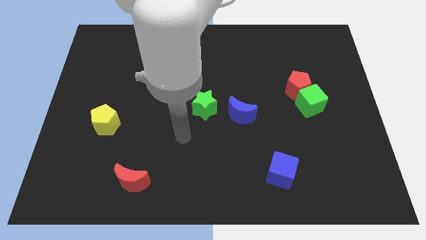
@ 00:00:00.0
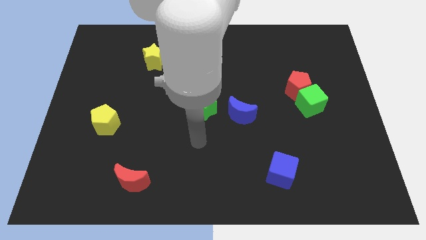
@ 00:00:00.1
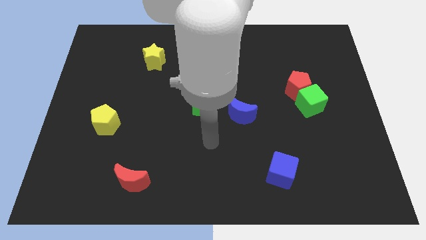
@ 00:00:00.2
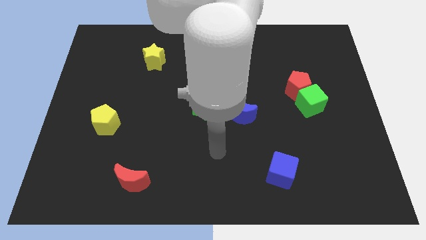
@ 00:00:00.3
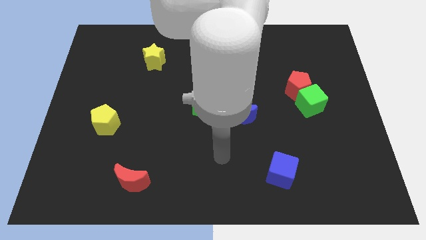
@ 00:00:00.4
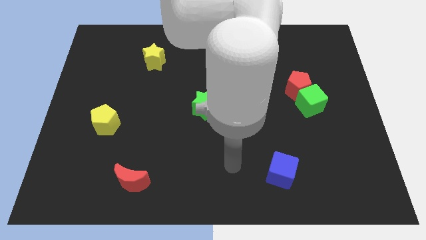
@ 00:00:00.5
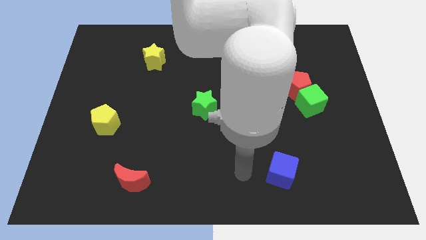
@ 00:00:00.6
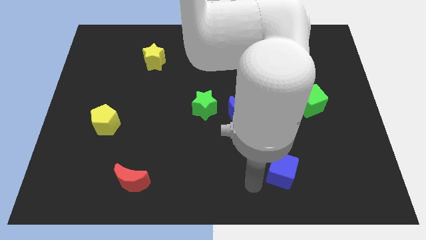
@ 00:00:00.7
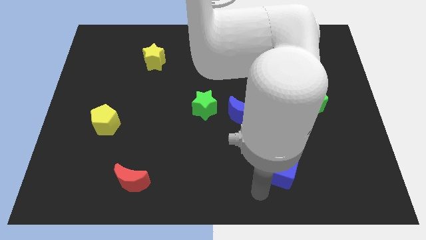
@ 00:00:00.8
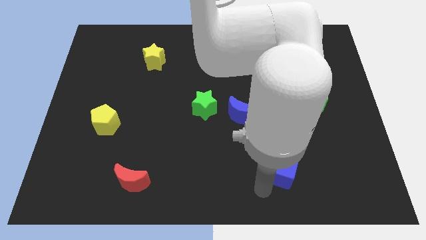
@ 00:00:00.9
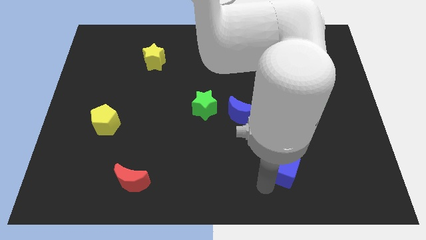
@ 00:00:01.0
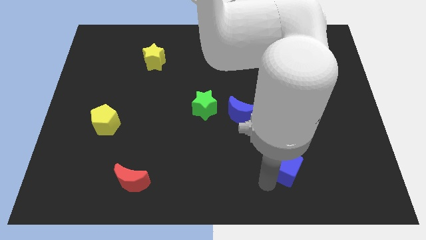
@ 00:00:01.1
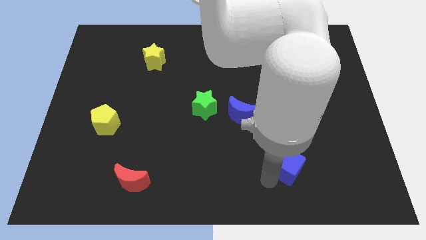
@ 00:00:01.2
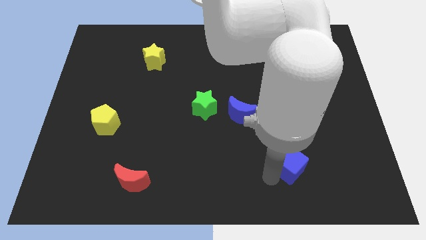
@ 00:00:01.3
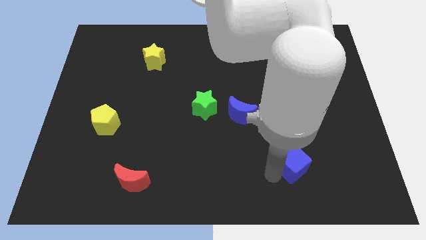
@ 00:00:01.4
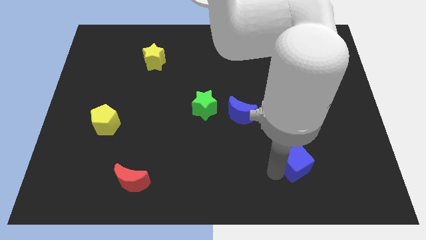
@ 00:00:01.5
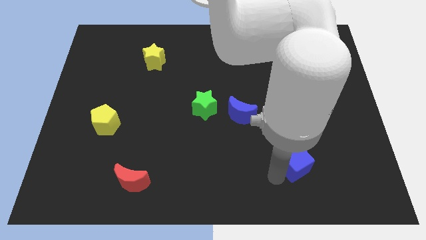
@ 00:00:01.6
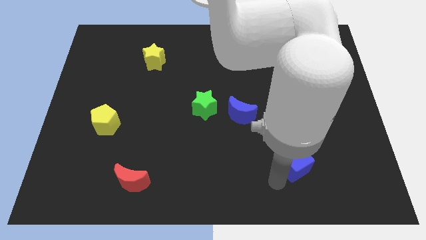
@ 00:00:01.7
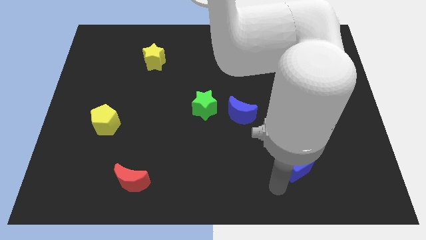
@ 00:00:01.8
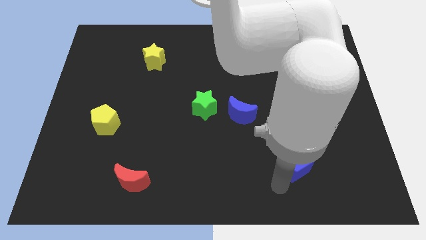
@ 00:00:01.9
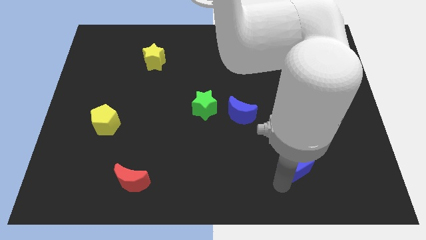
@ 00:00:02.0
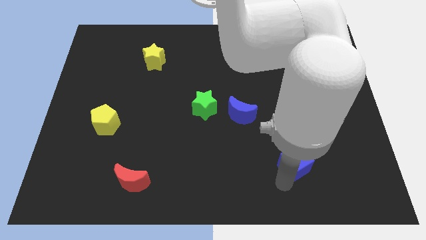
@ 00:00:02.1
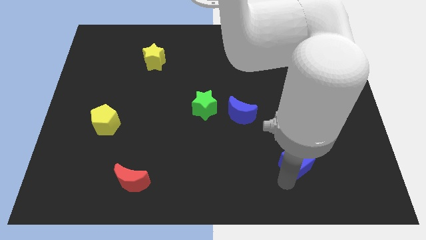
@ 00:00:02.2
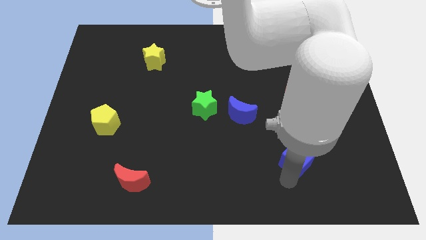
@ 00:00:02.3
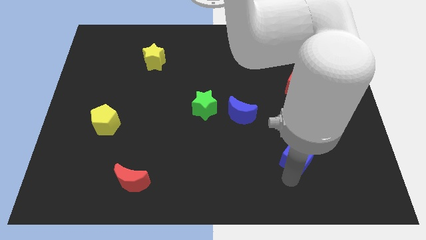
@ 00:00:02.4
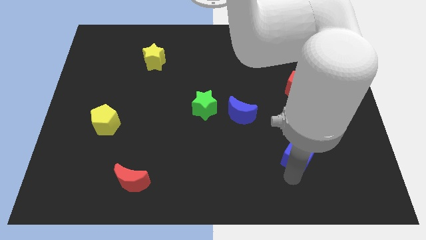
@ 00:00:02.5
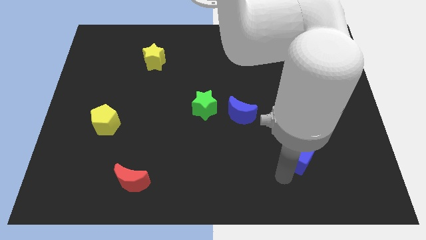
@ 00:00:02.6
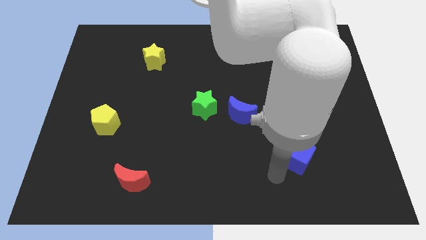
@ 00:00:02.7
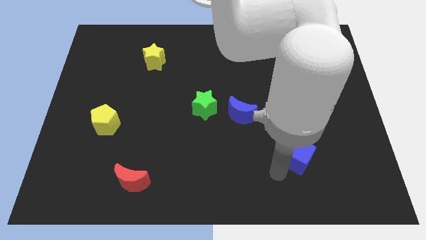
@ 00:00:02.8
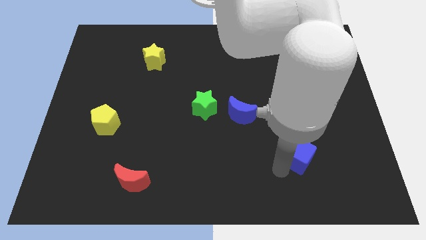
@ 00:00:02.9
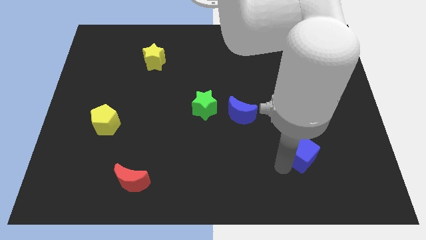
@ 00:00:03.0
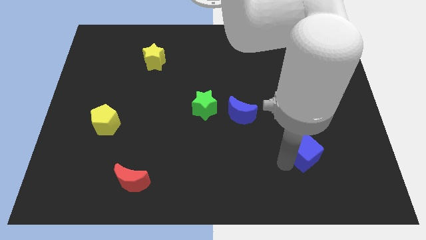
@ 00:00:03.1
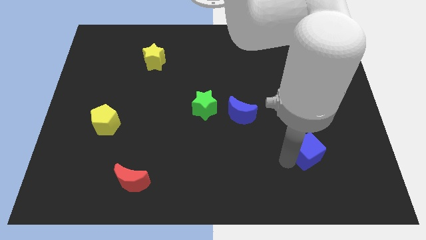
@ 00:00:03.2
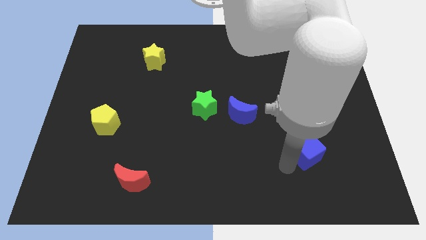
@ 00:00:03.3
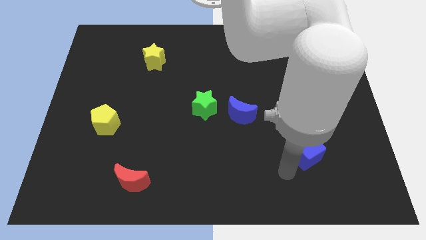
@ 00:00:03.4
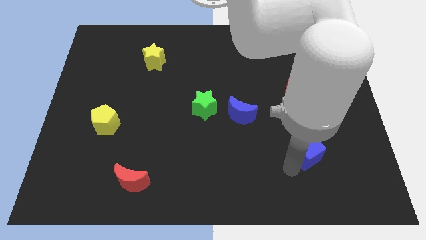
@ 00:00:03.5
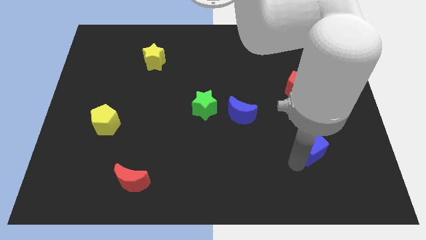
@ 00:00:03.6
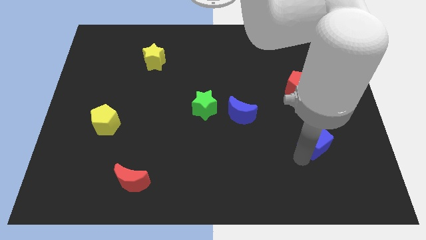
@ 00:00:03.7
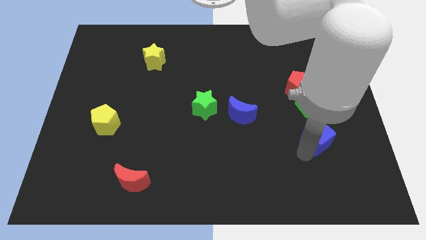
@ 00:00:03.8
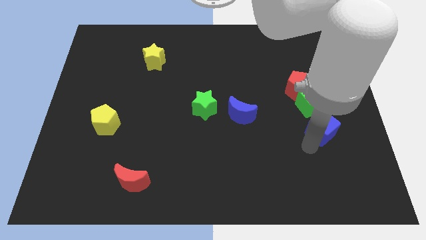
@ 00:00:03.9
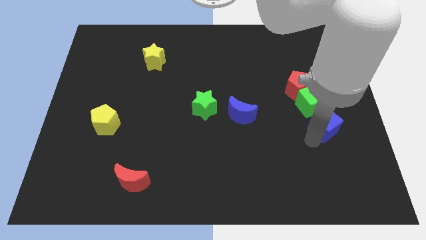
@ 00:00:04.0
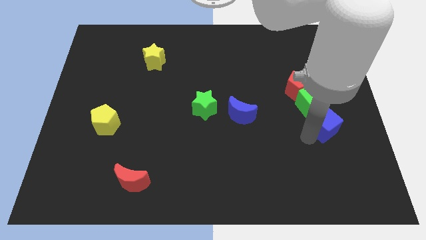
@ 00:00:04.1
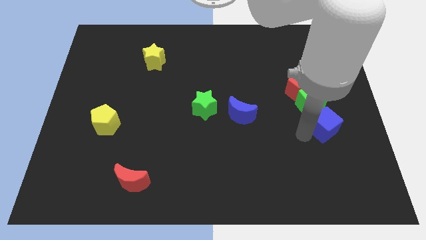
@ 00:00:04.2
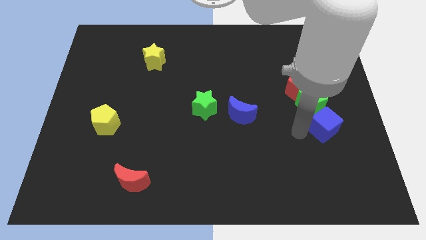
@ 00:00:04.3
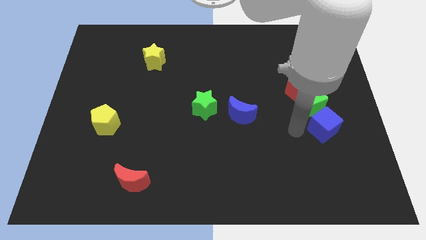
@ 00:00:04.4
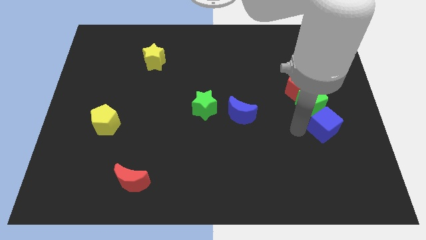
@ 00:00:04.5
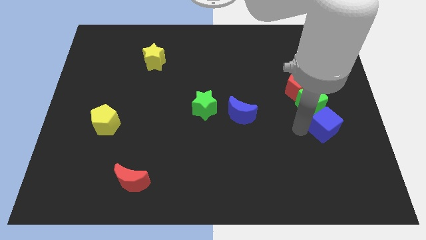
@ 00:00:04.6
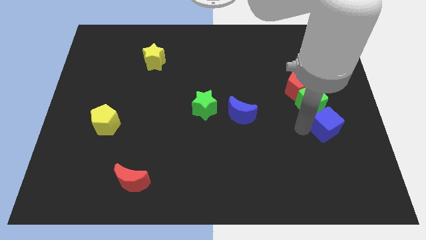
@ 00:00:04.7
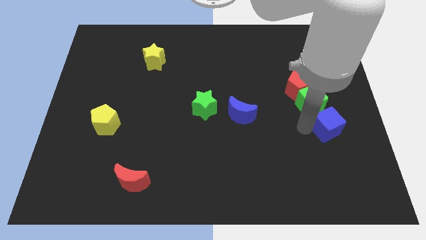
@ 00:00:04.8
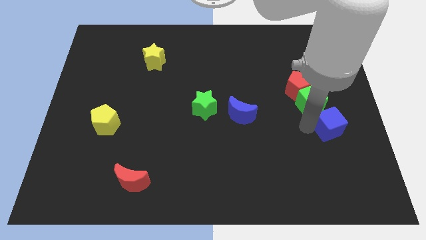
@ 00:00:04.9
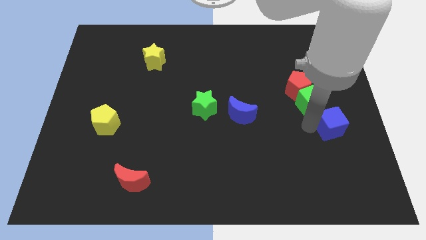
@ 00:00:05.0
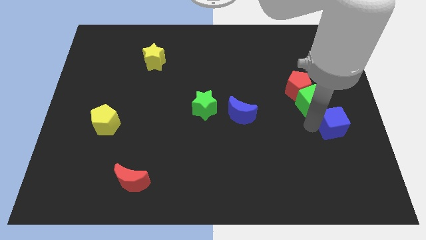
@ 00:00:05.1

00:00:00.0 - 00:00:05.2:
put the blue cube to the center right

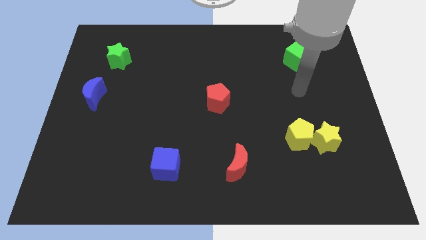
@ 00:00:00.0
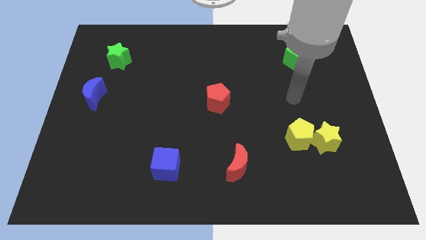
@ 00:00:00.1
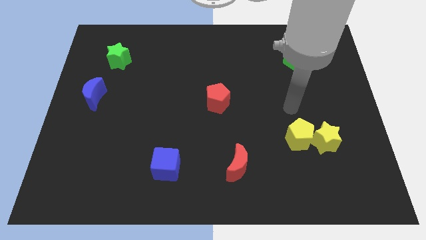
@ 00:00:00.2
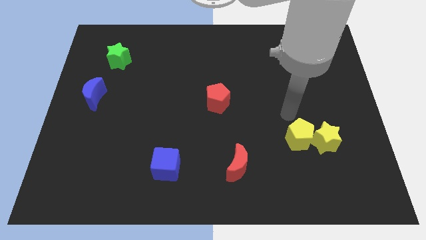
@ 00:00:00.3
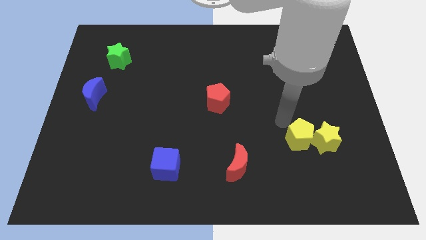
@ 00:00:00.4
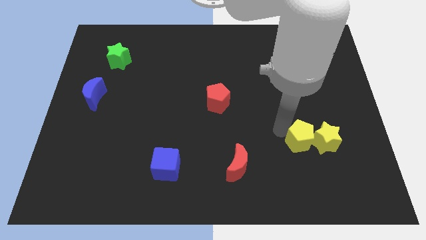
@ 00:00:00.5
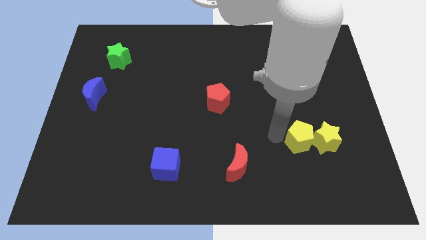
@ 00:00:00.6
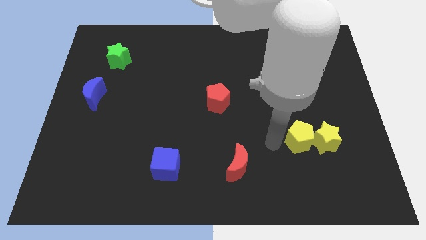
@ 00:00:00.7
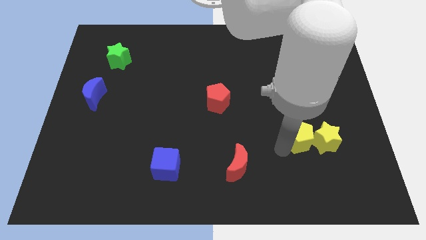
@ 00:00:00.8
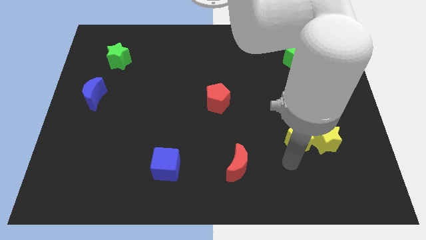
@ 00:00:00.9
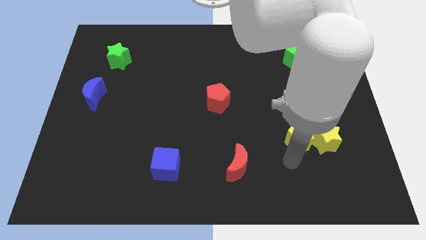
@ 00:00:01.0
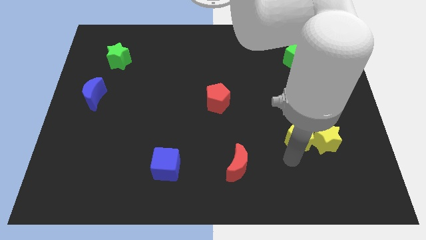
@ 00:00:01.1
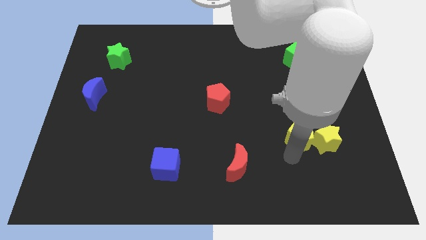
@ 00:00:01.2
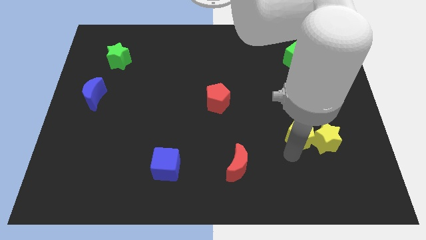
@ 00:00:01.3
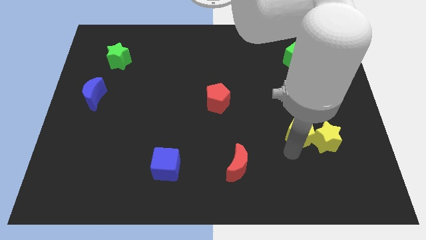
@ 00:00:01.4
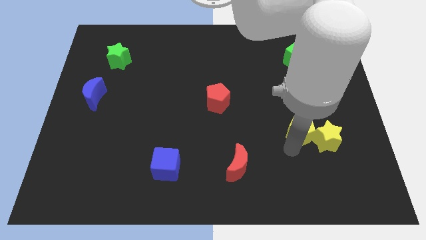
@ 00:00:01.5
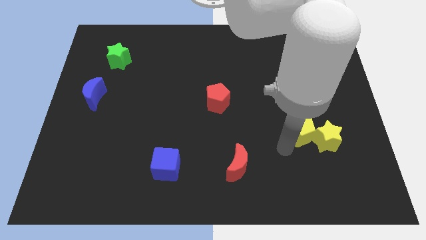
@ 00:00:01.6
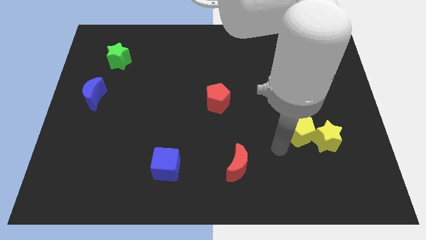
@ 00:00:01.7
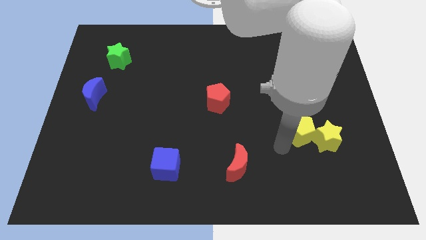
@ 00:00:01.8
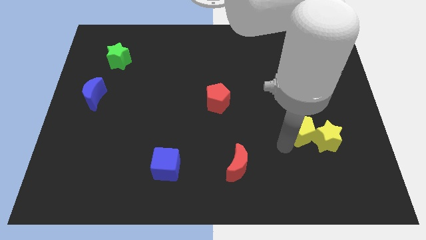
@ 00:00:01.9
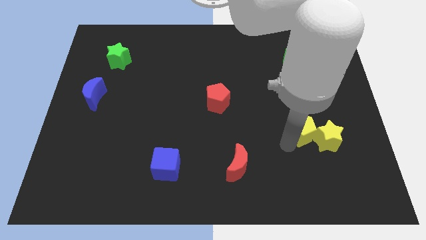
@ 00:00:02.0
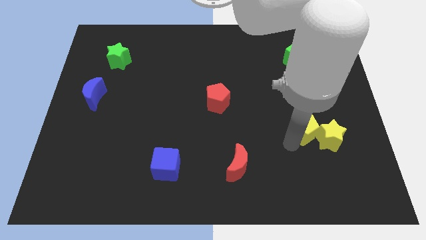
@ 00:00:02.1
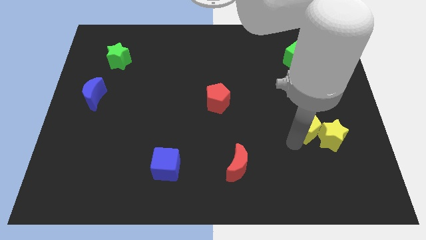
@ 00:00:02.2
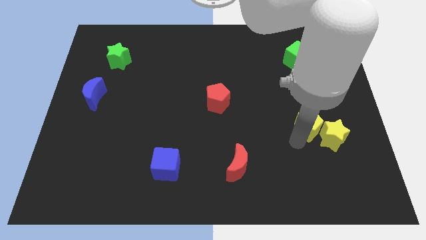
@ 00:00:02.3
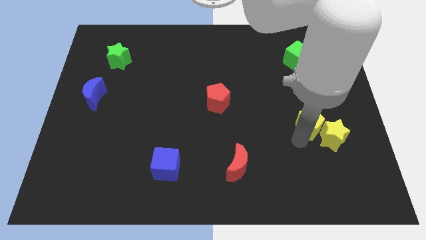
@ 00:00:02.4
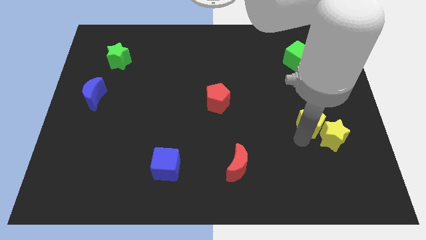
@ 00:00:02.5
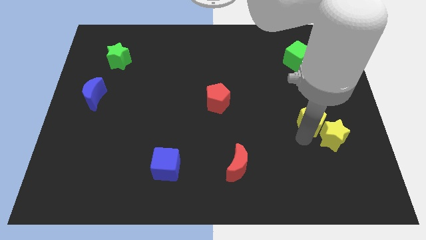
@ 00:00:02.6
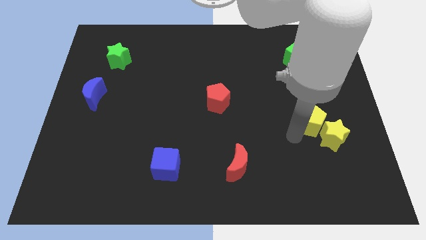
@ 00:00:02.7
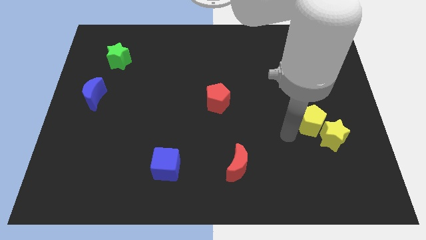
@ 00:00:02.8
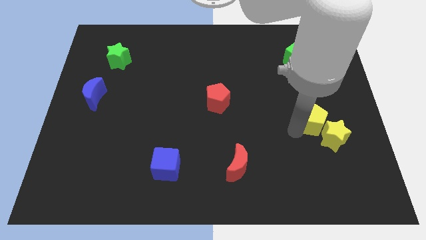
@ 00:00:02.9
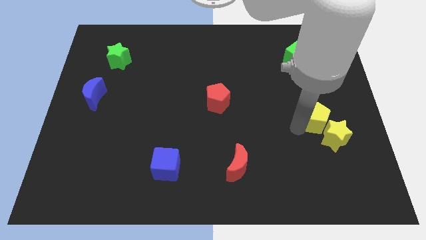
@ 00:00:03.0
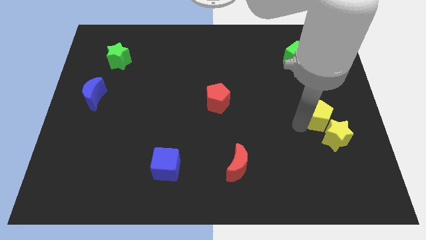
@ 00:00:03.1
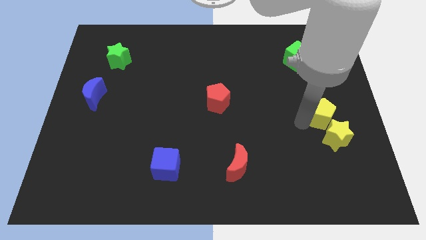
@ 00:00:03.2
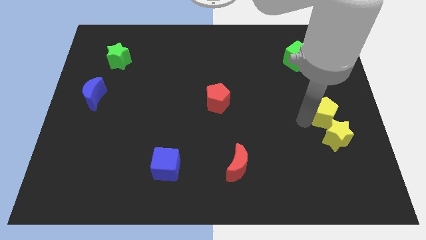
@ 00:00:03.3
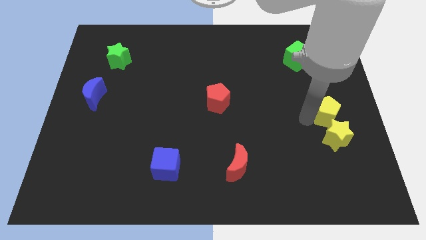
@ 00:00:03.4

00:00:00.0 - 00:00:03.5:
move the yellow pentagon to the right side
